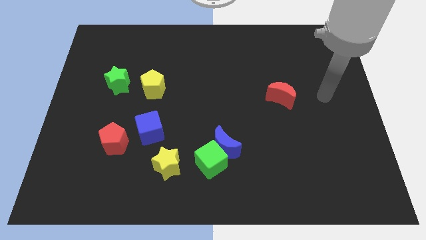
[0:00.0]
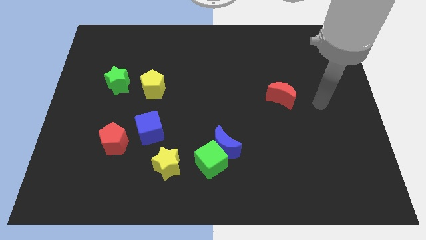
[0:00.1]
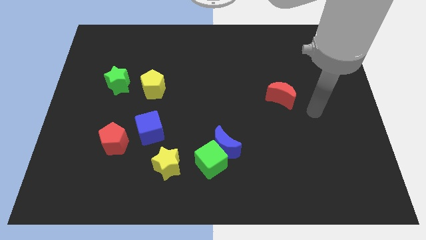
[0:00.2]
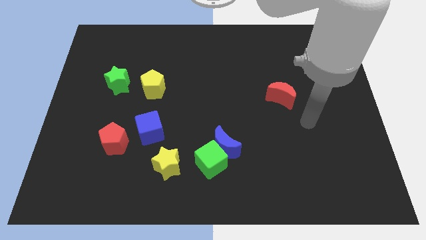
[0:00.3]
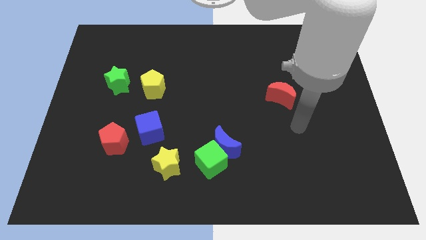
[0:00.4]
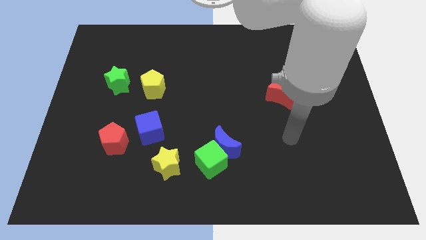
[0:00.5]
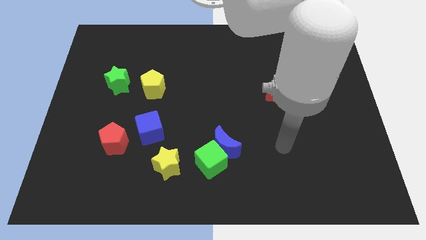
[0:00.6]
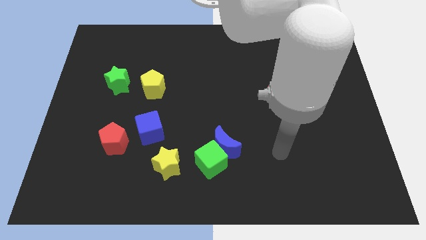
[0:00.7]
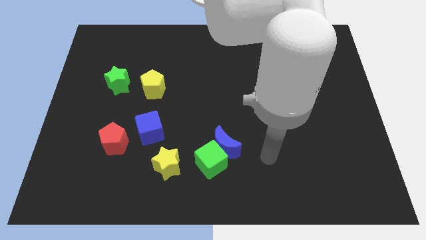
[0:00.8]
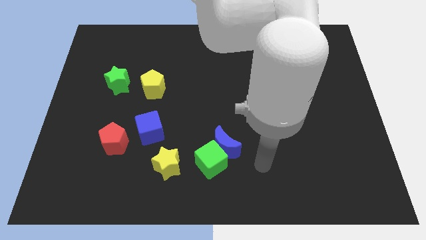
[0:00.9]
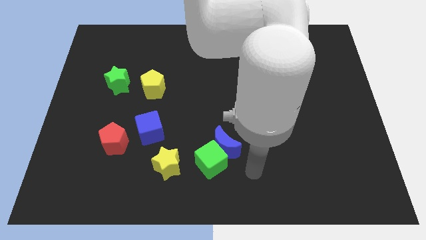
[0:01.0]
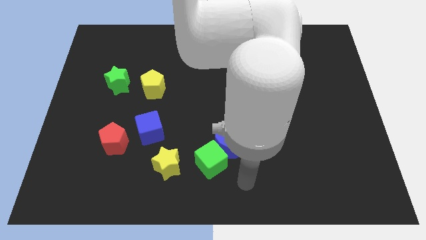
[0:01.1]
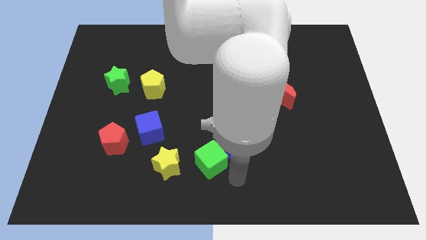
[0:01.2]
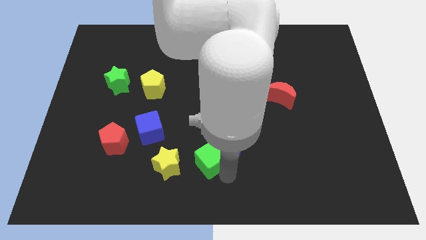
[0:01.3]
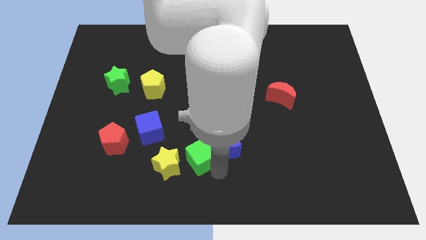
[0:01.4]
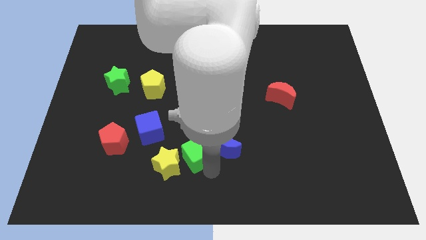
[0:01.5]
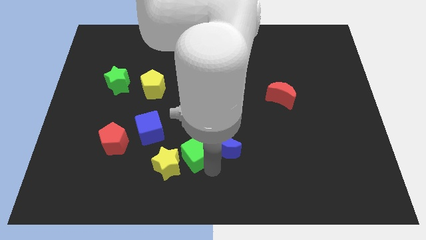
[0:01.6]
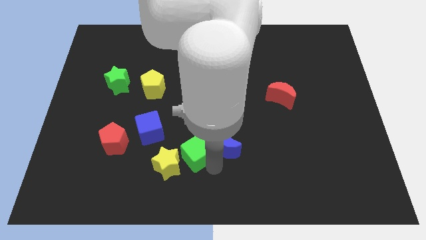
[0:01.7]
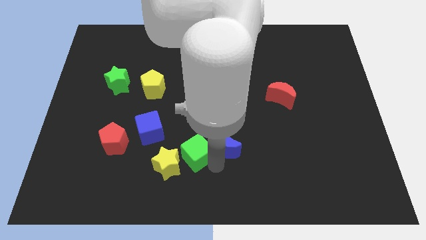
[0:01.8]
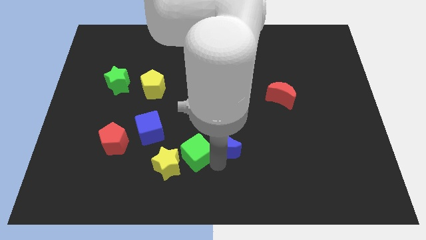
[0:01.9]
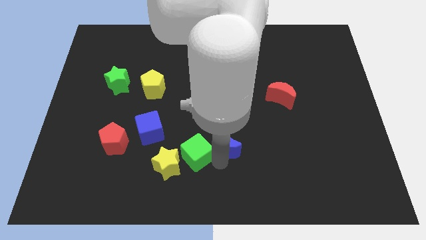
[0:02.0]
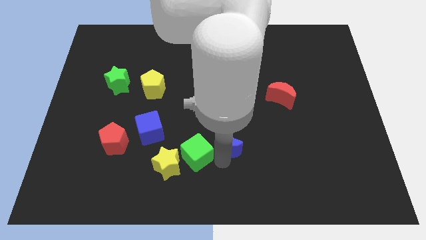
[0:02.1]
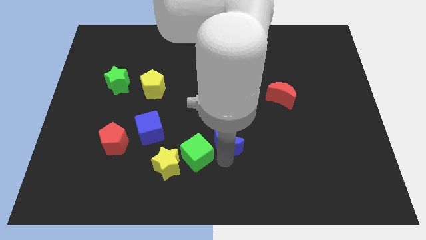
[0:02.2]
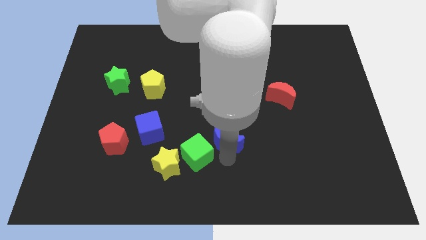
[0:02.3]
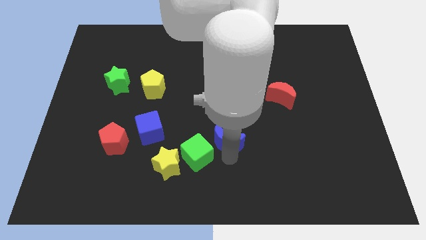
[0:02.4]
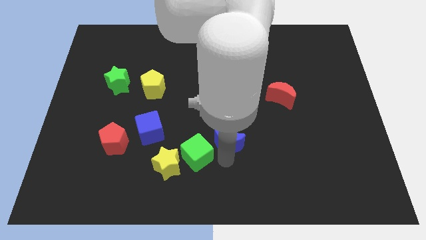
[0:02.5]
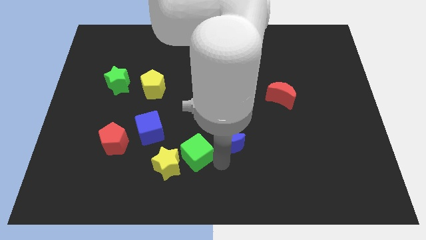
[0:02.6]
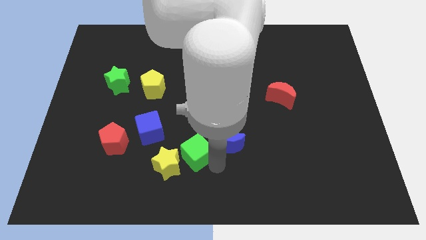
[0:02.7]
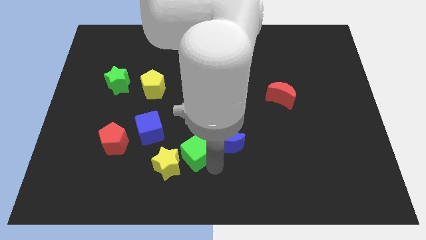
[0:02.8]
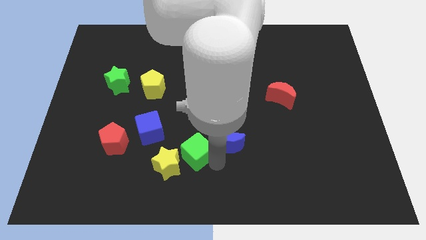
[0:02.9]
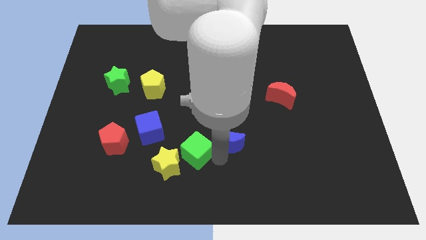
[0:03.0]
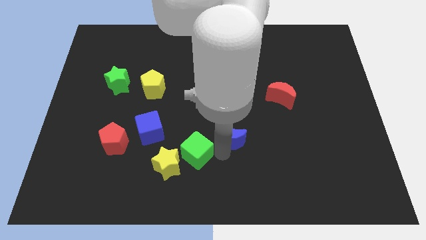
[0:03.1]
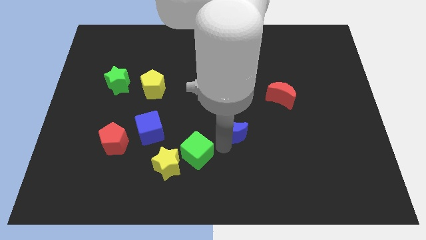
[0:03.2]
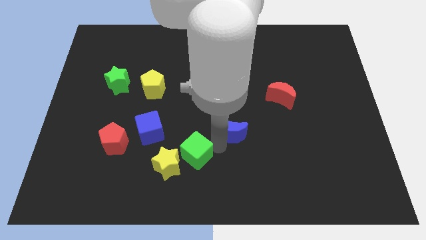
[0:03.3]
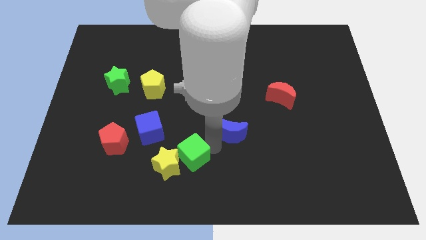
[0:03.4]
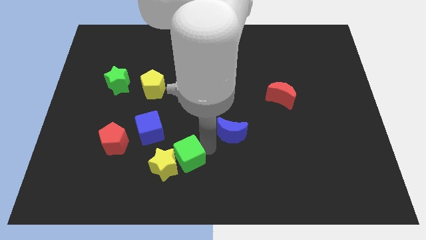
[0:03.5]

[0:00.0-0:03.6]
pull the blue moon apart from the green cube

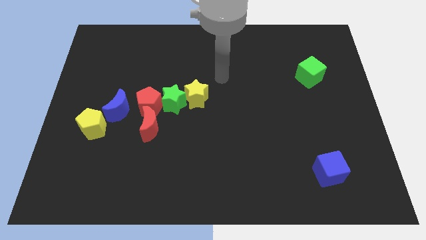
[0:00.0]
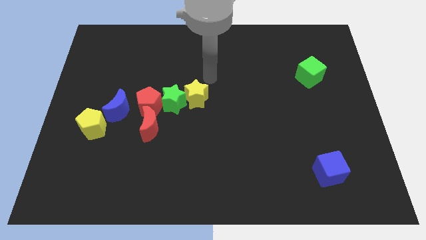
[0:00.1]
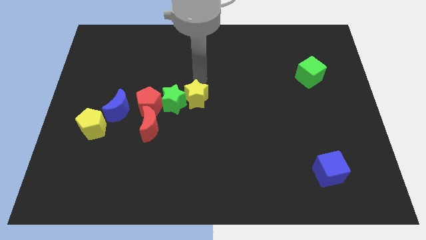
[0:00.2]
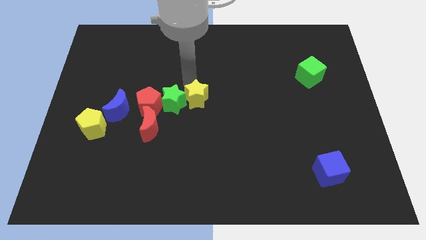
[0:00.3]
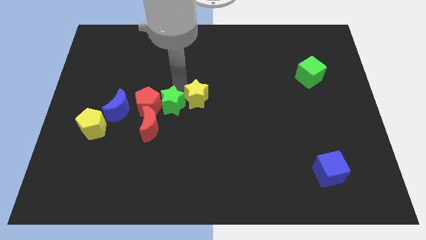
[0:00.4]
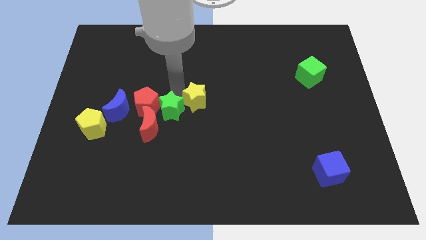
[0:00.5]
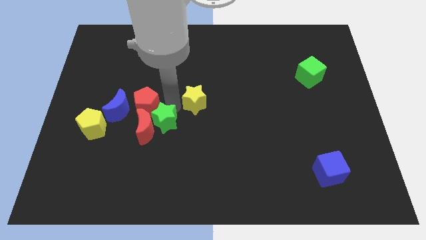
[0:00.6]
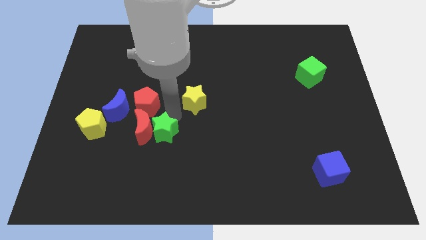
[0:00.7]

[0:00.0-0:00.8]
move the yellow star away from the green star

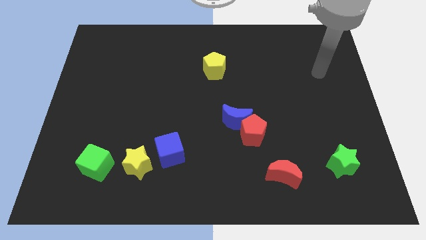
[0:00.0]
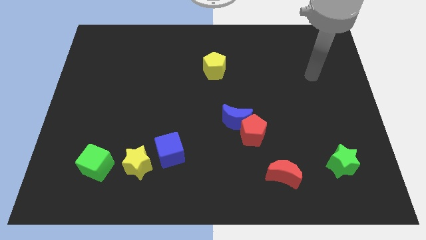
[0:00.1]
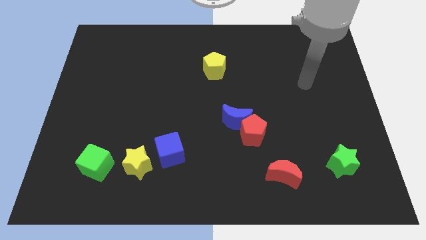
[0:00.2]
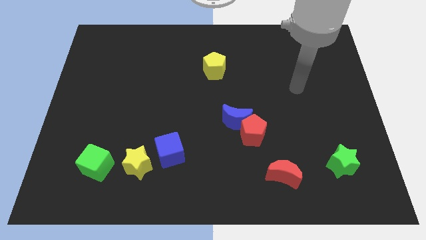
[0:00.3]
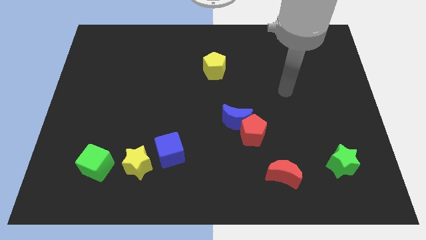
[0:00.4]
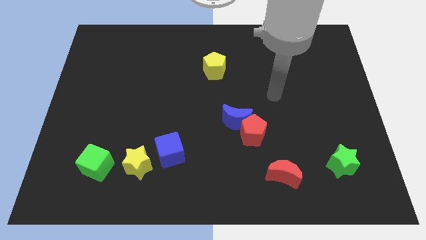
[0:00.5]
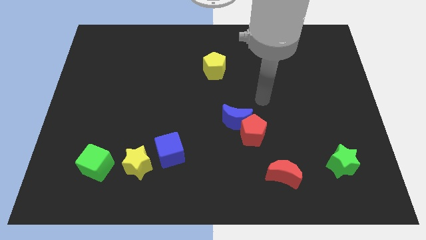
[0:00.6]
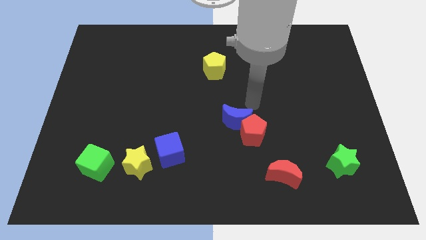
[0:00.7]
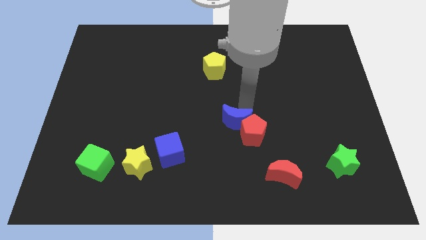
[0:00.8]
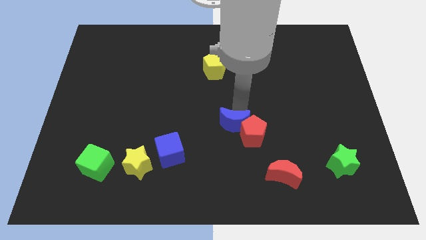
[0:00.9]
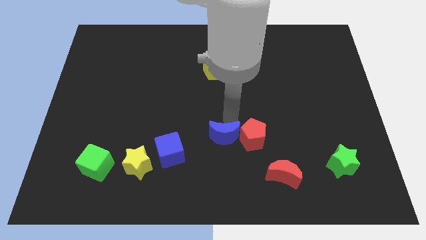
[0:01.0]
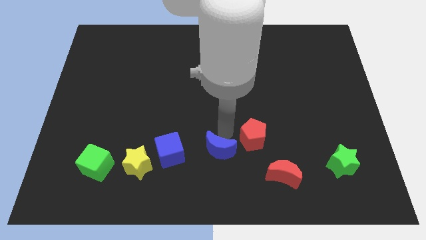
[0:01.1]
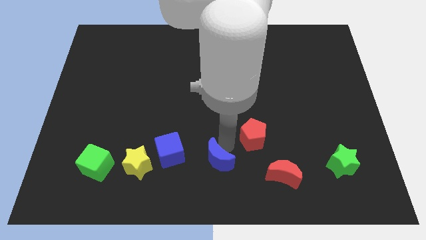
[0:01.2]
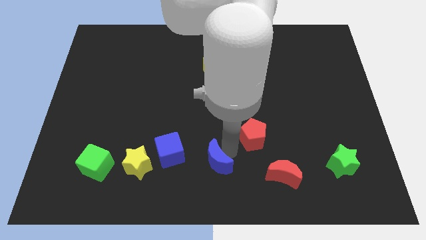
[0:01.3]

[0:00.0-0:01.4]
separate the red pentagon from the blue moon

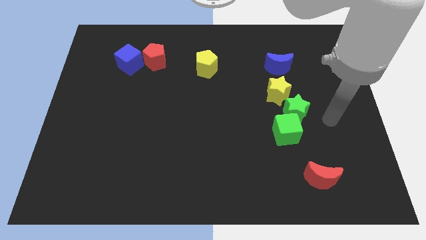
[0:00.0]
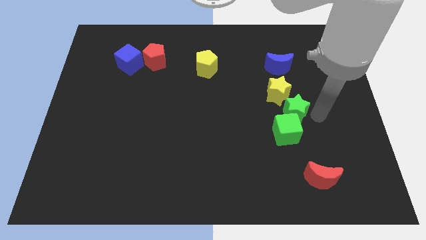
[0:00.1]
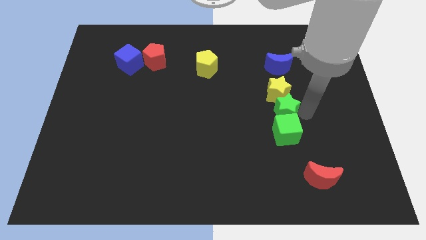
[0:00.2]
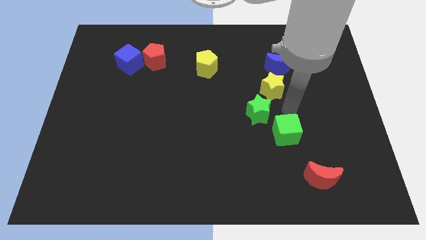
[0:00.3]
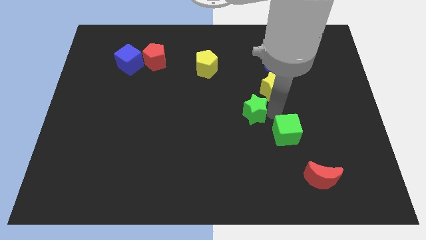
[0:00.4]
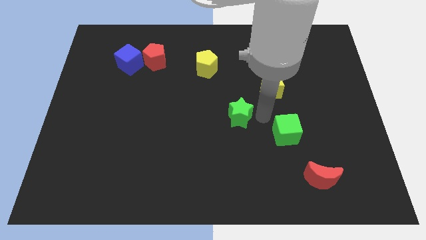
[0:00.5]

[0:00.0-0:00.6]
pull the green cube apart from the green star

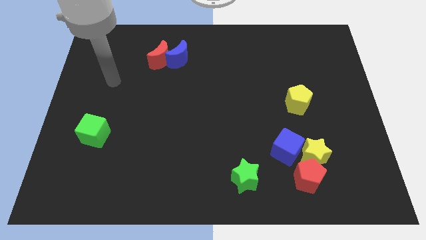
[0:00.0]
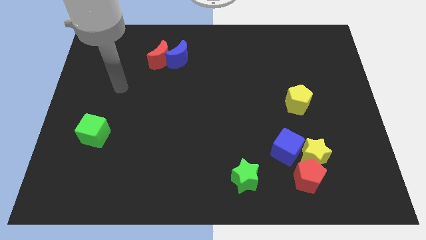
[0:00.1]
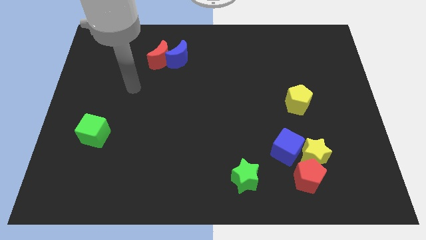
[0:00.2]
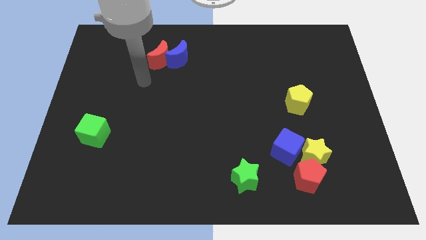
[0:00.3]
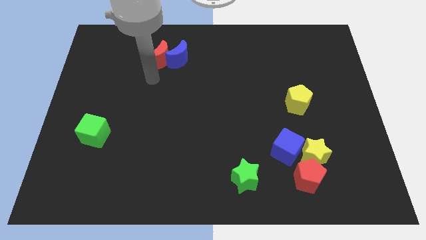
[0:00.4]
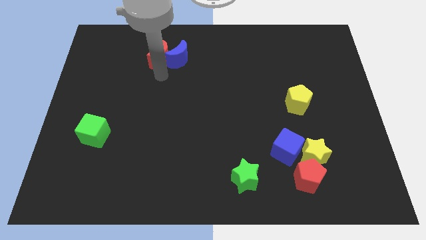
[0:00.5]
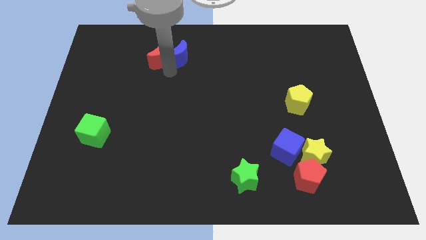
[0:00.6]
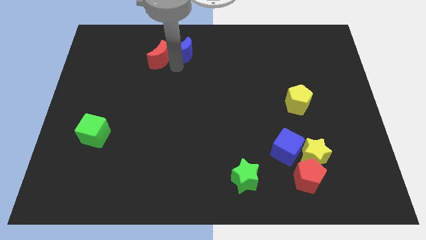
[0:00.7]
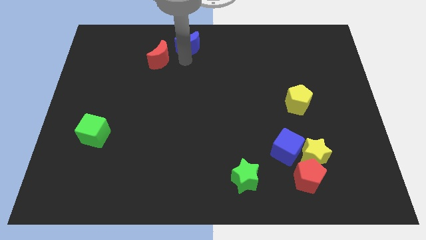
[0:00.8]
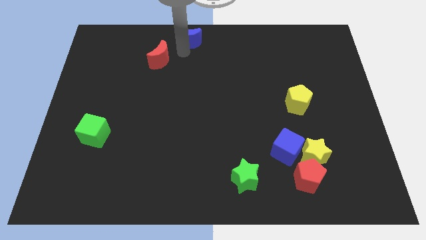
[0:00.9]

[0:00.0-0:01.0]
pull the red moon apart from the blue moon

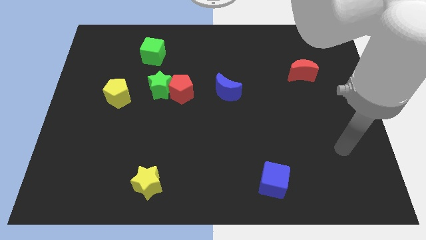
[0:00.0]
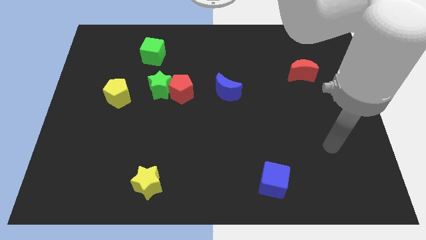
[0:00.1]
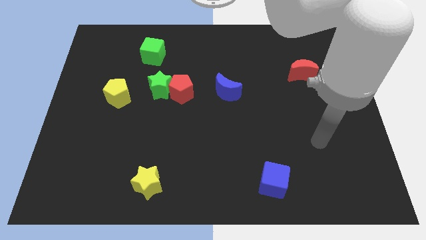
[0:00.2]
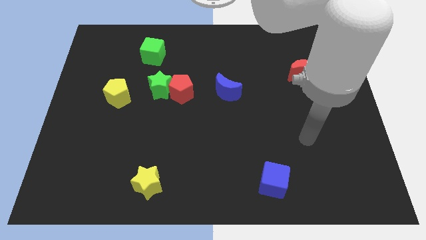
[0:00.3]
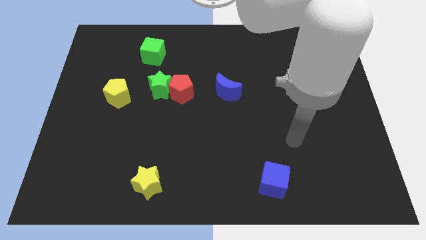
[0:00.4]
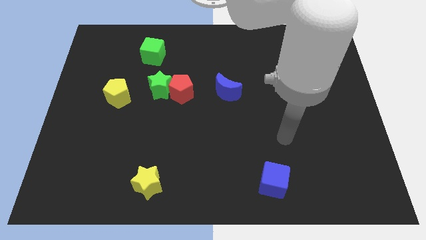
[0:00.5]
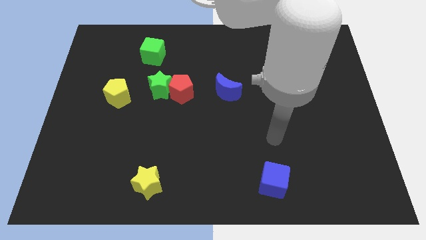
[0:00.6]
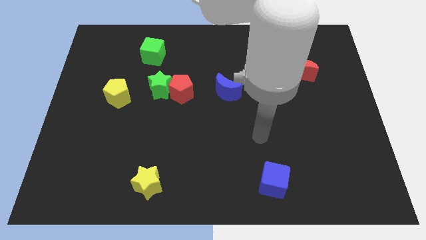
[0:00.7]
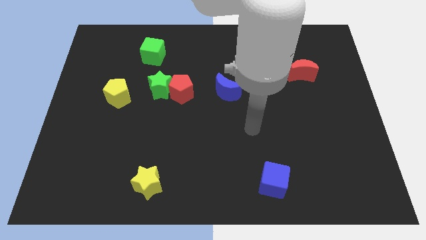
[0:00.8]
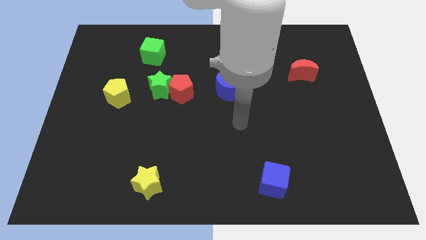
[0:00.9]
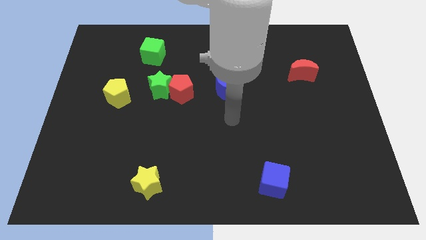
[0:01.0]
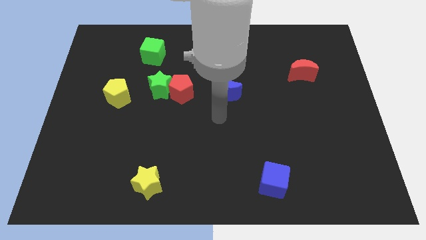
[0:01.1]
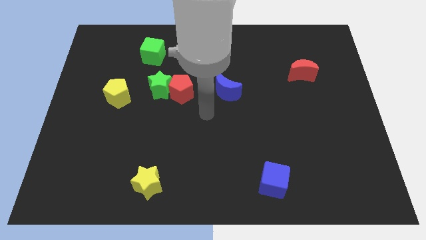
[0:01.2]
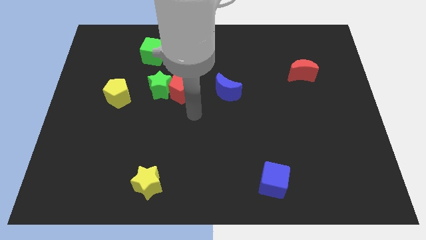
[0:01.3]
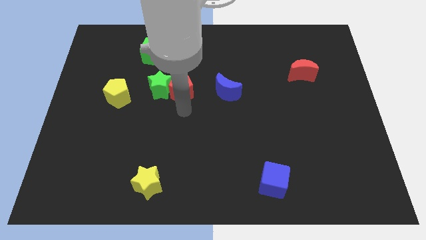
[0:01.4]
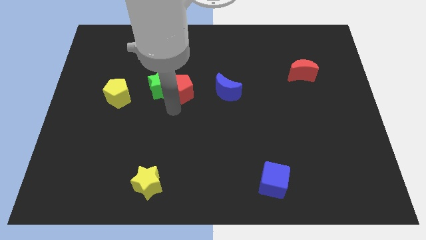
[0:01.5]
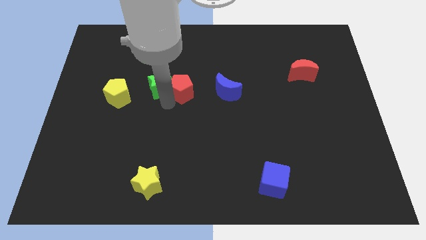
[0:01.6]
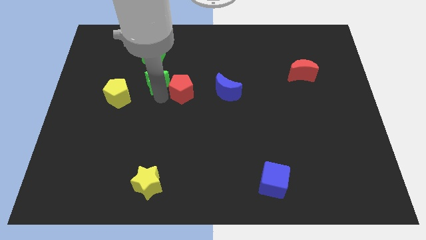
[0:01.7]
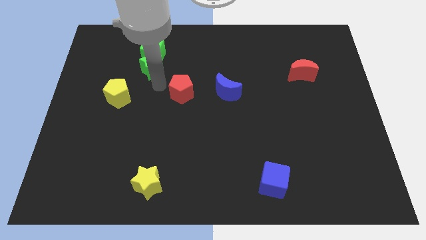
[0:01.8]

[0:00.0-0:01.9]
pull the red pentagon apart from the green star
